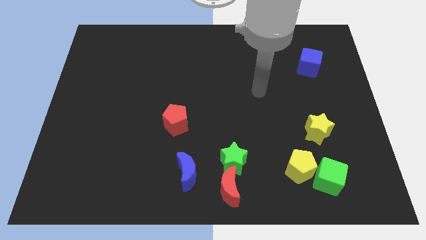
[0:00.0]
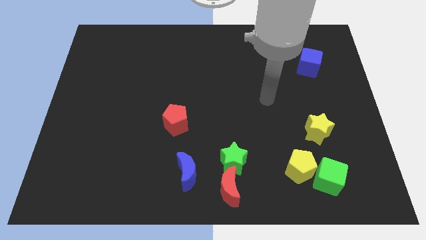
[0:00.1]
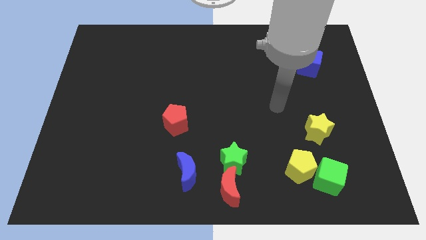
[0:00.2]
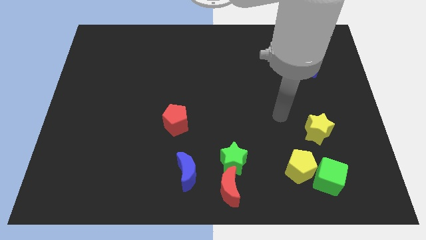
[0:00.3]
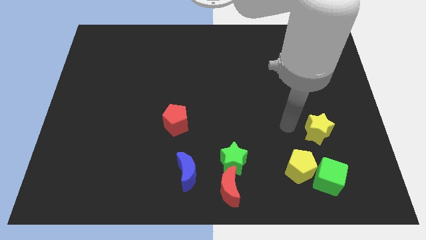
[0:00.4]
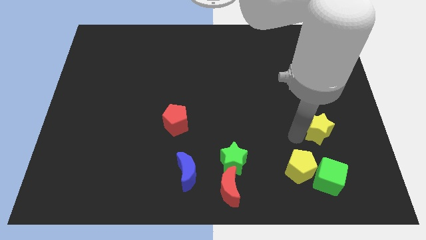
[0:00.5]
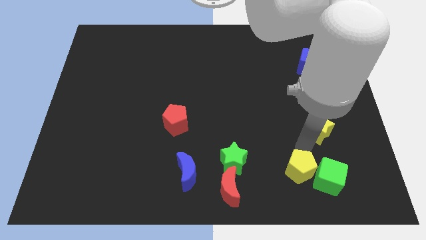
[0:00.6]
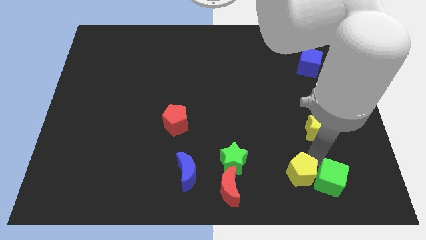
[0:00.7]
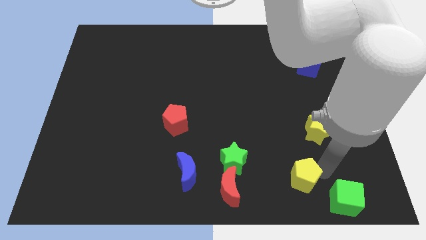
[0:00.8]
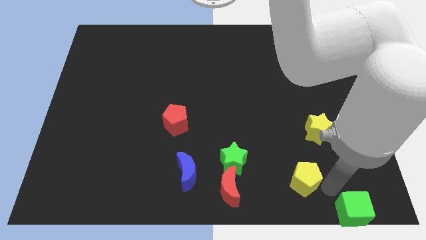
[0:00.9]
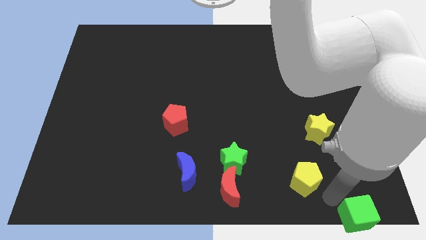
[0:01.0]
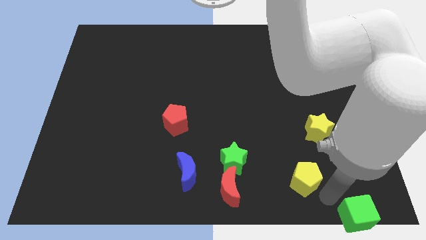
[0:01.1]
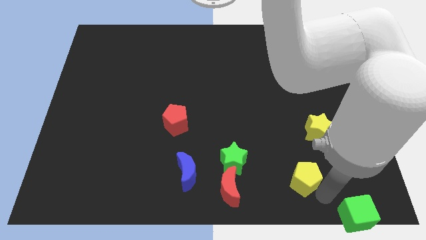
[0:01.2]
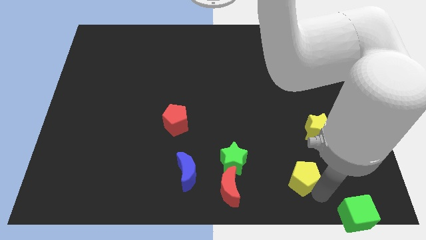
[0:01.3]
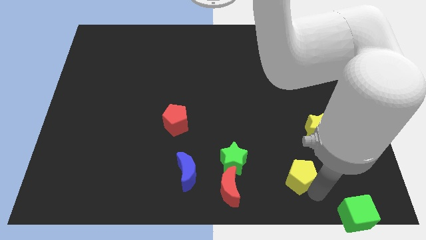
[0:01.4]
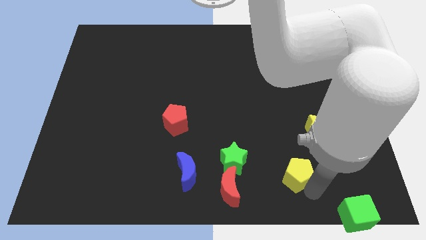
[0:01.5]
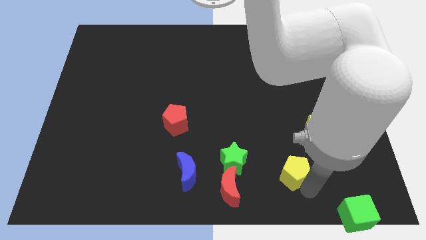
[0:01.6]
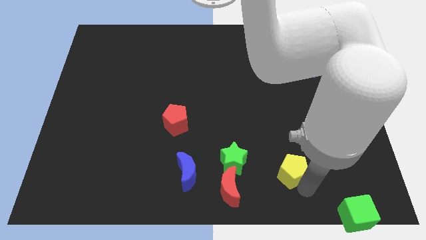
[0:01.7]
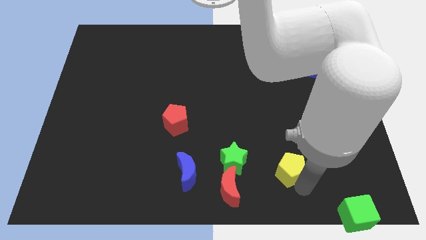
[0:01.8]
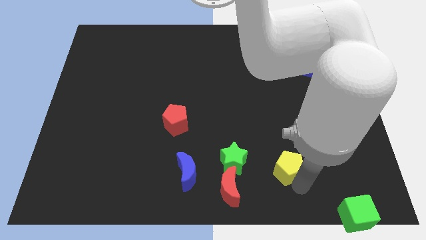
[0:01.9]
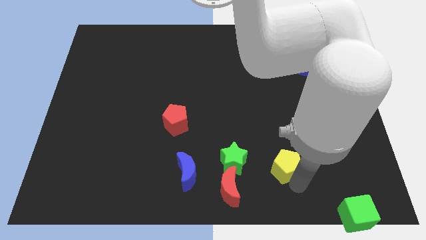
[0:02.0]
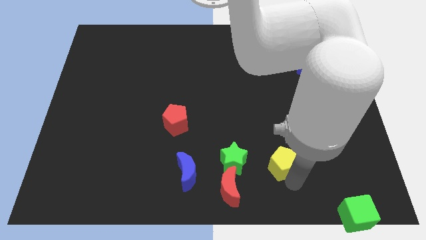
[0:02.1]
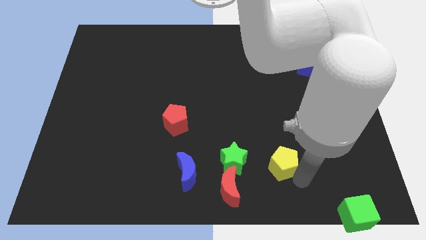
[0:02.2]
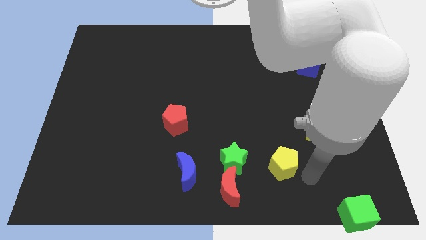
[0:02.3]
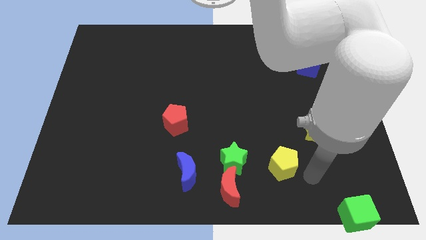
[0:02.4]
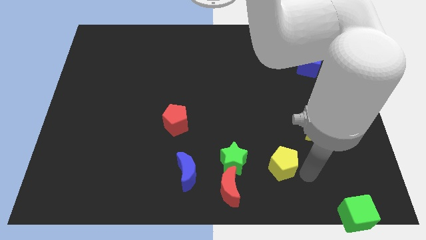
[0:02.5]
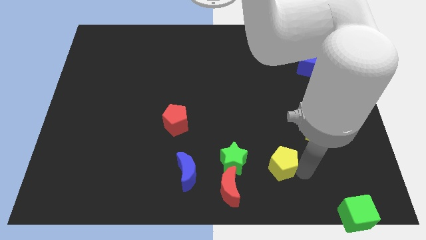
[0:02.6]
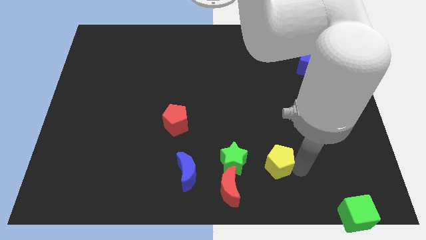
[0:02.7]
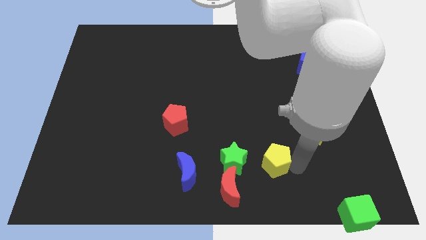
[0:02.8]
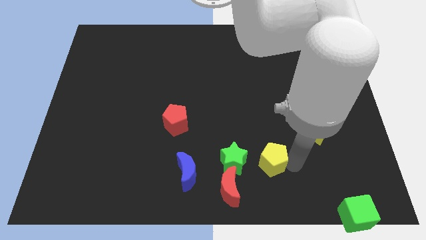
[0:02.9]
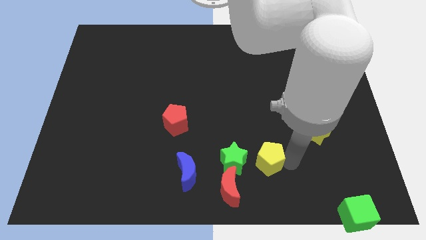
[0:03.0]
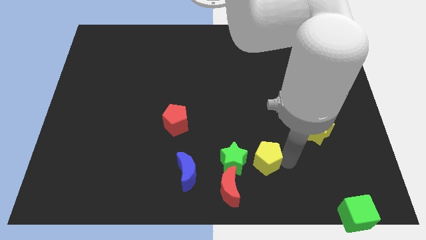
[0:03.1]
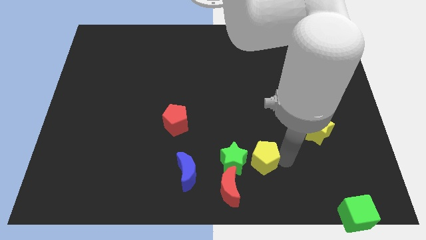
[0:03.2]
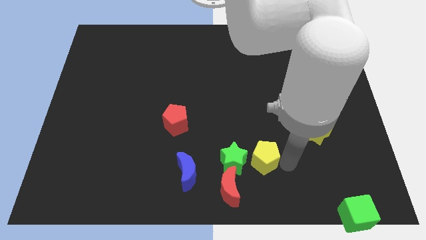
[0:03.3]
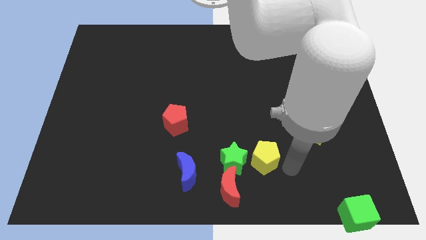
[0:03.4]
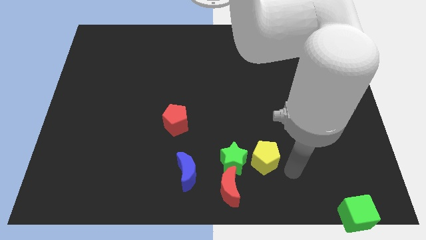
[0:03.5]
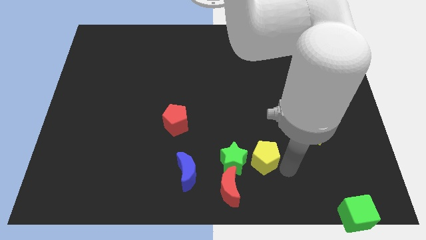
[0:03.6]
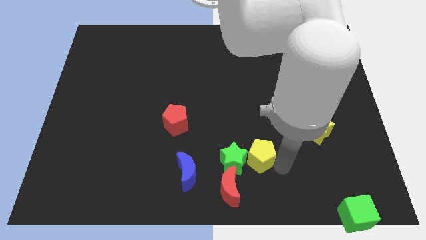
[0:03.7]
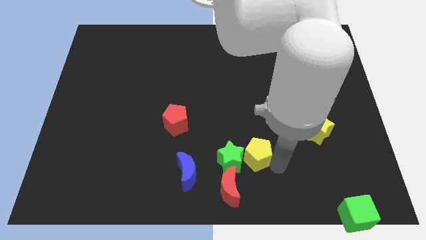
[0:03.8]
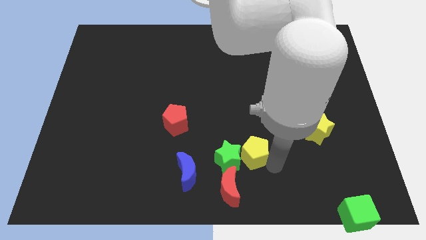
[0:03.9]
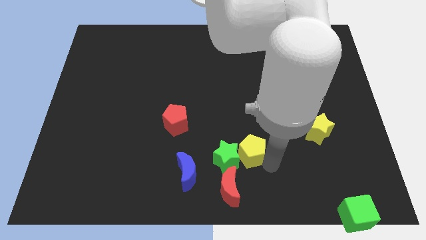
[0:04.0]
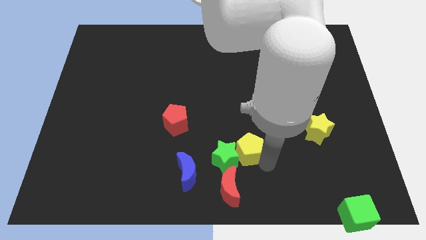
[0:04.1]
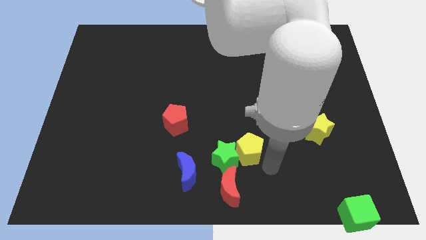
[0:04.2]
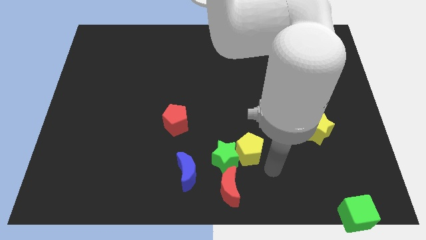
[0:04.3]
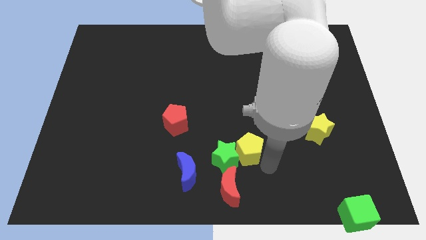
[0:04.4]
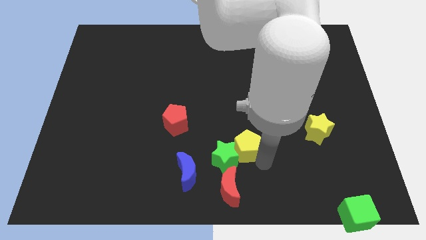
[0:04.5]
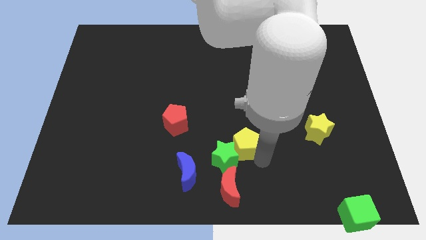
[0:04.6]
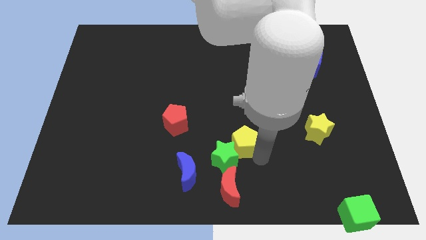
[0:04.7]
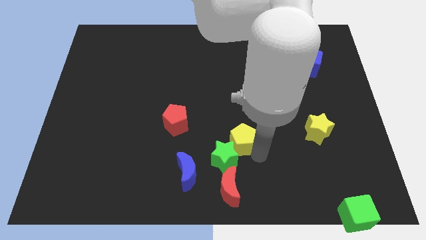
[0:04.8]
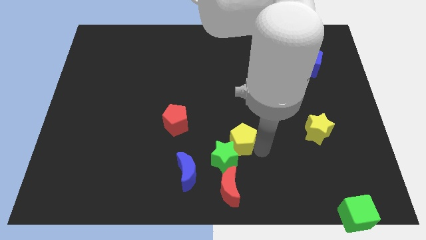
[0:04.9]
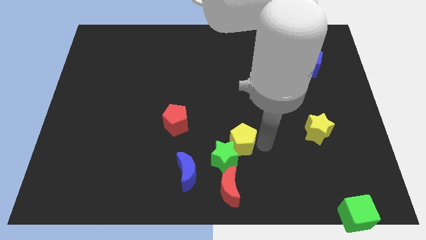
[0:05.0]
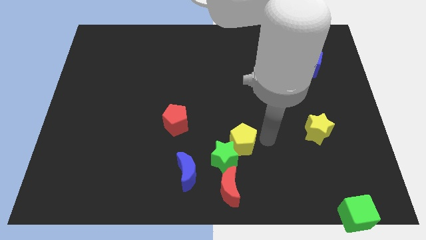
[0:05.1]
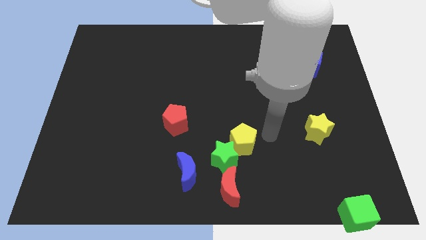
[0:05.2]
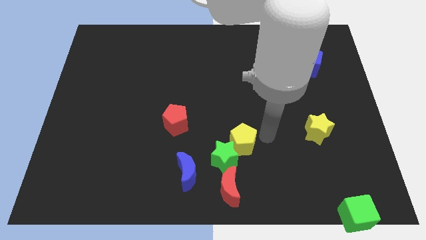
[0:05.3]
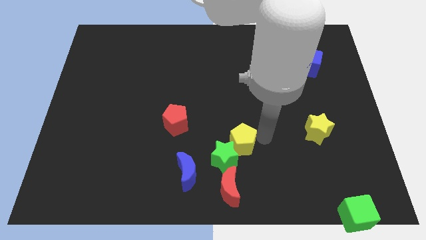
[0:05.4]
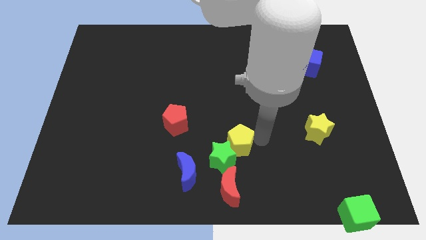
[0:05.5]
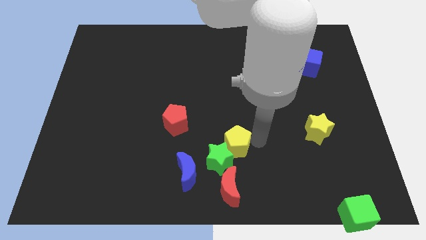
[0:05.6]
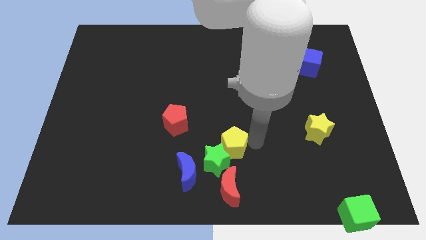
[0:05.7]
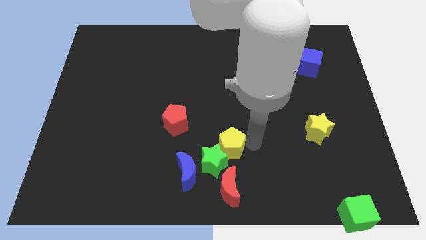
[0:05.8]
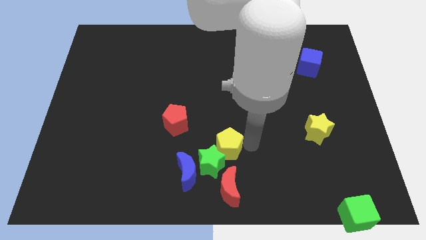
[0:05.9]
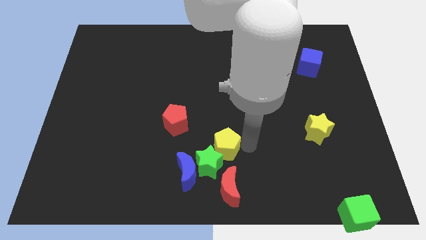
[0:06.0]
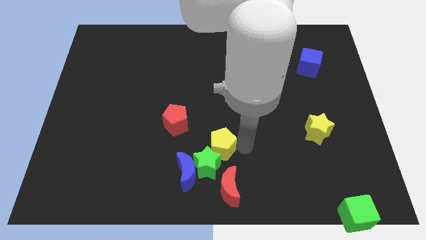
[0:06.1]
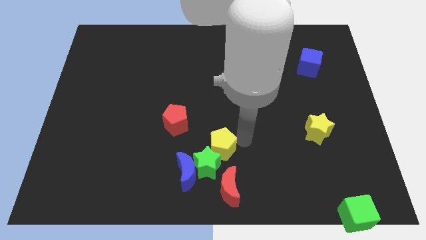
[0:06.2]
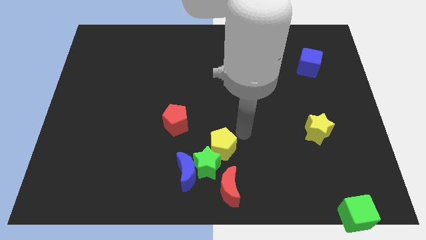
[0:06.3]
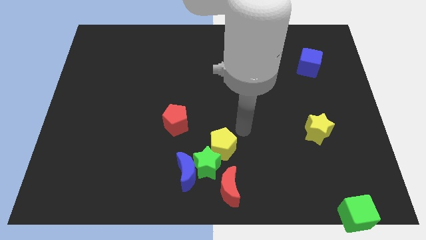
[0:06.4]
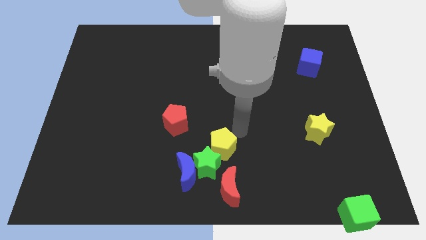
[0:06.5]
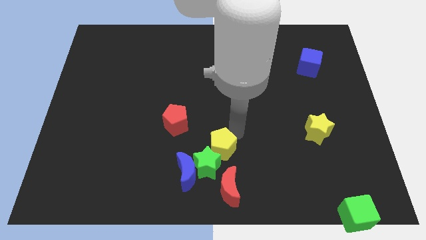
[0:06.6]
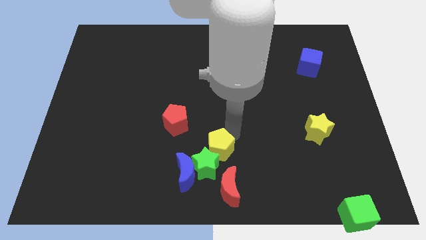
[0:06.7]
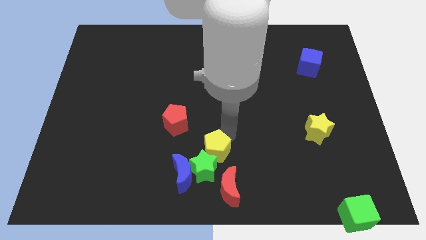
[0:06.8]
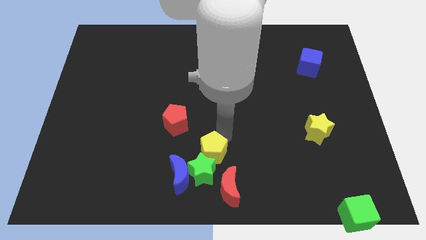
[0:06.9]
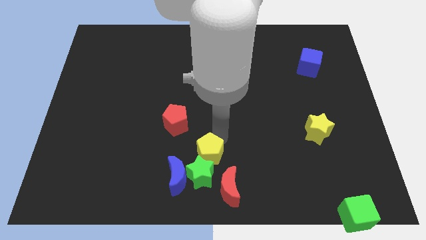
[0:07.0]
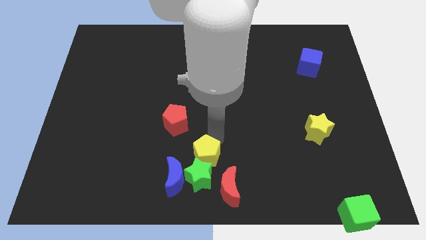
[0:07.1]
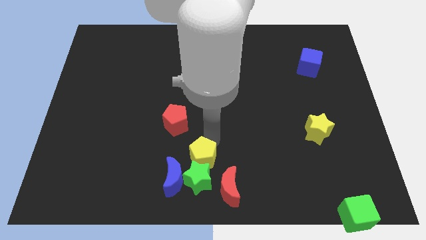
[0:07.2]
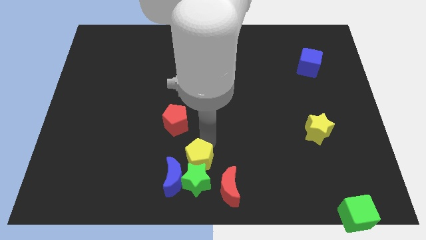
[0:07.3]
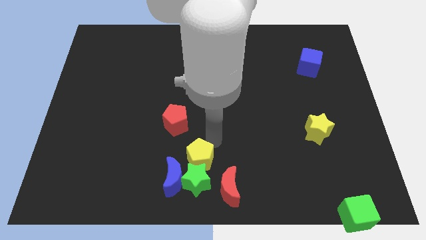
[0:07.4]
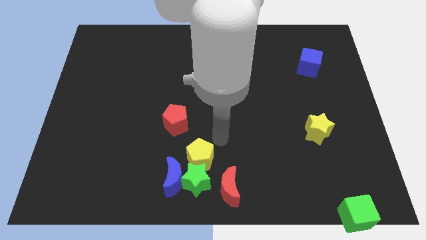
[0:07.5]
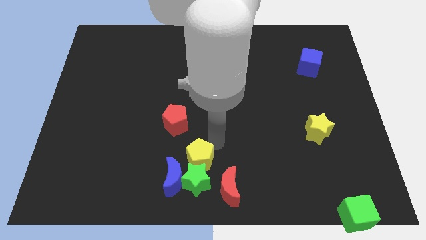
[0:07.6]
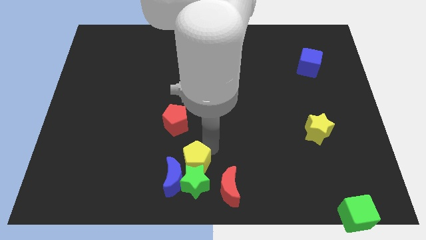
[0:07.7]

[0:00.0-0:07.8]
move the yellow pentagon to the blue moon
